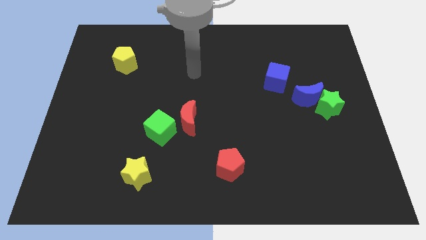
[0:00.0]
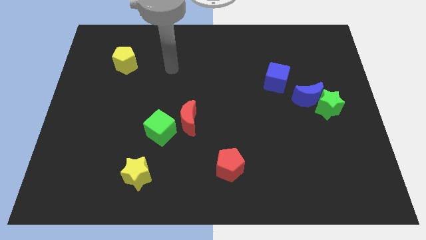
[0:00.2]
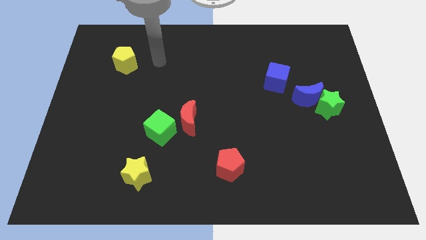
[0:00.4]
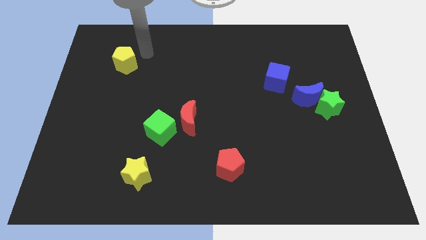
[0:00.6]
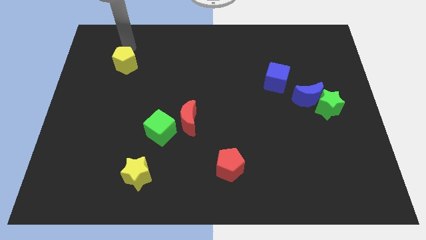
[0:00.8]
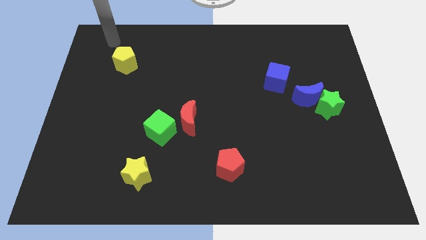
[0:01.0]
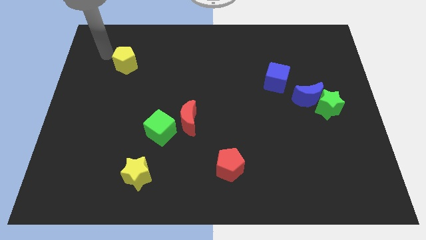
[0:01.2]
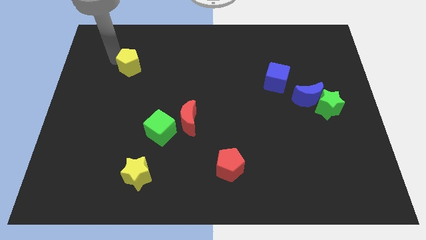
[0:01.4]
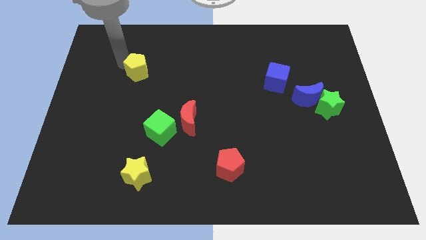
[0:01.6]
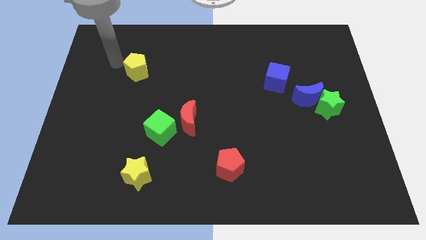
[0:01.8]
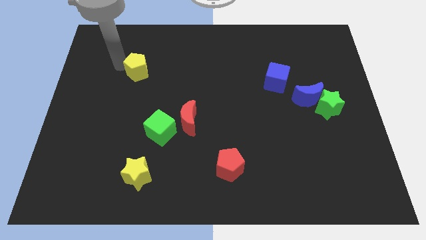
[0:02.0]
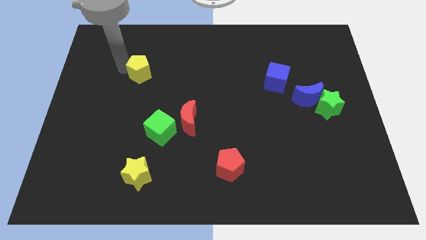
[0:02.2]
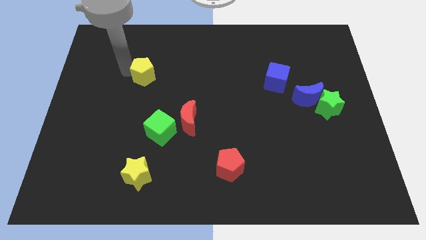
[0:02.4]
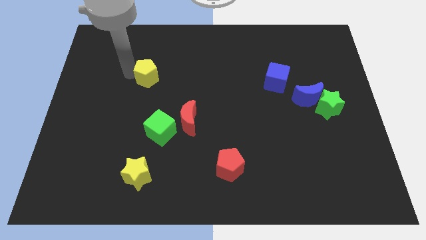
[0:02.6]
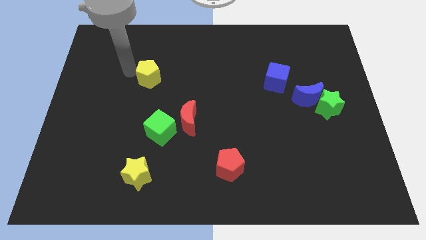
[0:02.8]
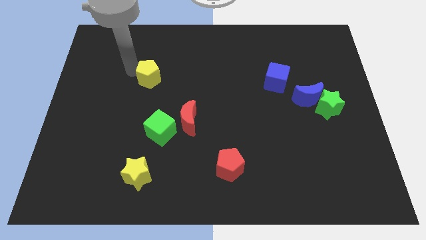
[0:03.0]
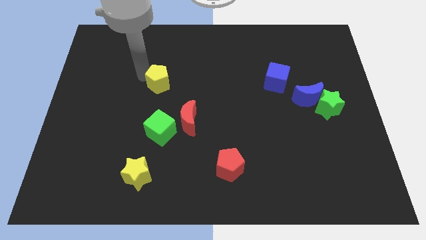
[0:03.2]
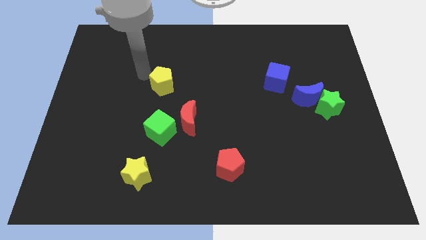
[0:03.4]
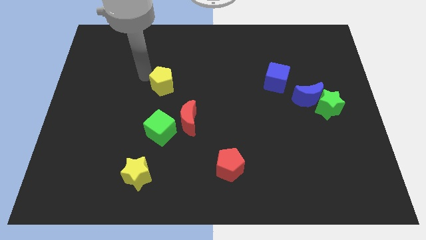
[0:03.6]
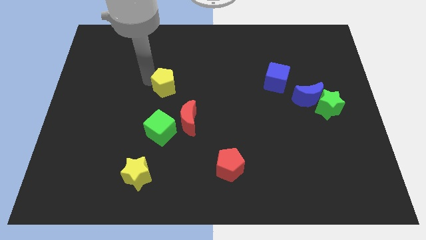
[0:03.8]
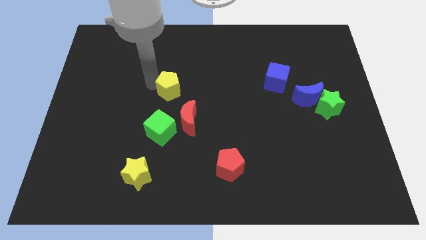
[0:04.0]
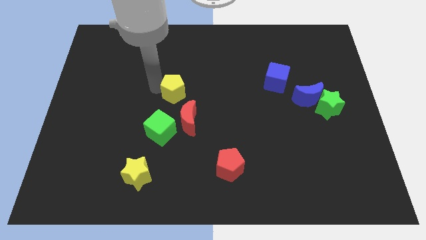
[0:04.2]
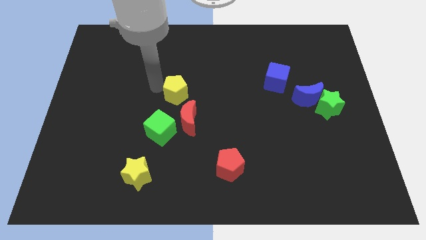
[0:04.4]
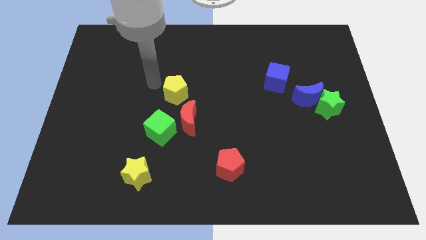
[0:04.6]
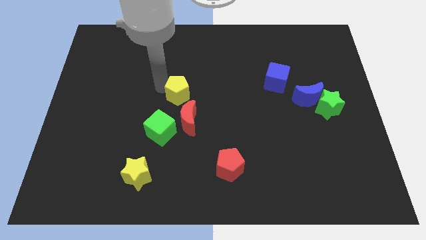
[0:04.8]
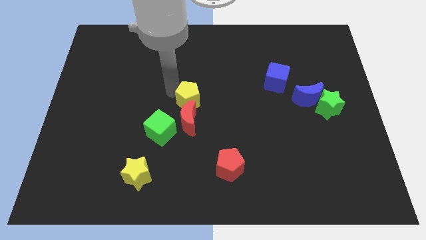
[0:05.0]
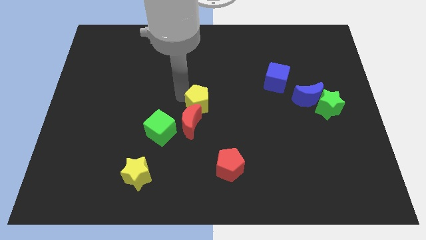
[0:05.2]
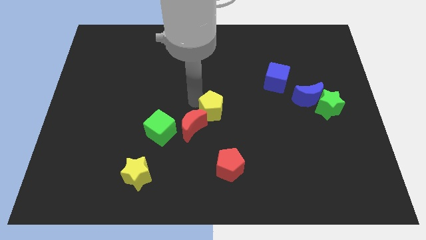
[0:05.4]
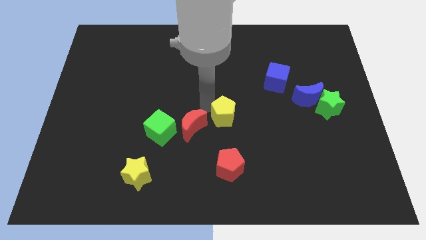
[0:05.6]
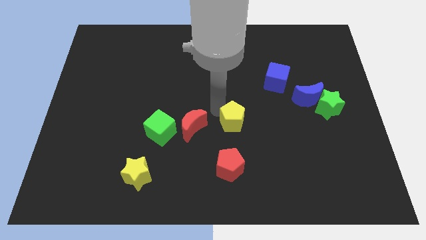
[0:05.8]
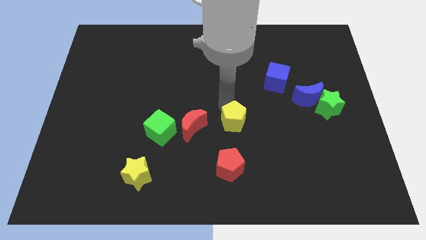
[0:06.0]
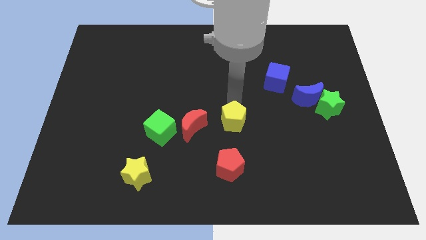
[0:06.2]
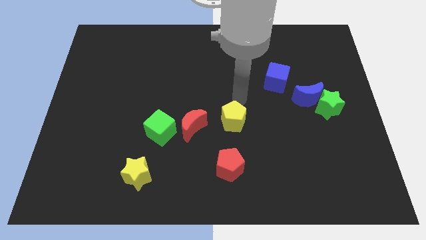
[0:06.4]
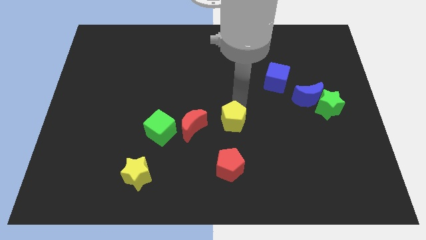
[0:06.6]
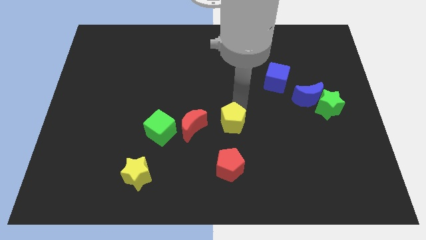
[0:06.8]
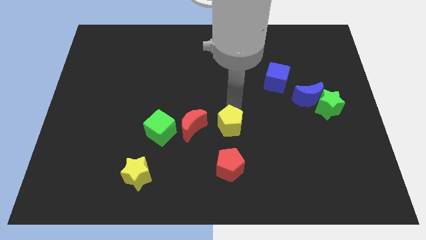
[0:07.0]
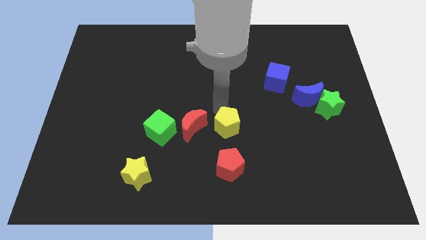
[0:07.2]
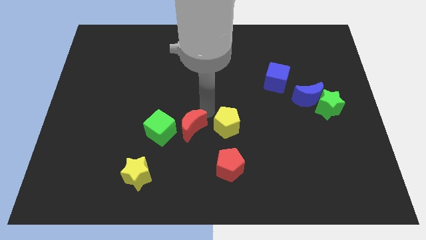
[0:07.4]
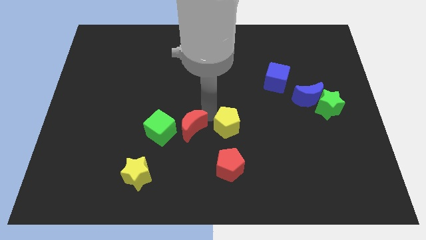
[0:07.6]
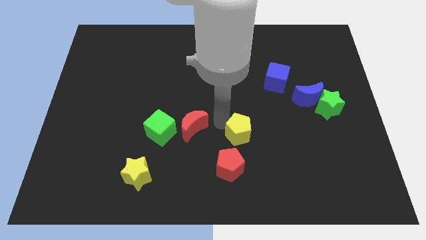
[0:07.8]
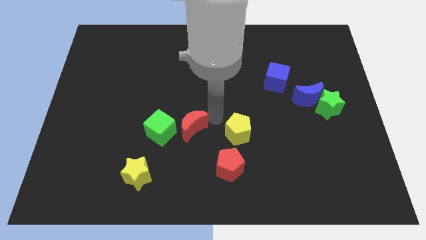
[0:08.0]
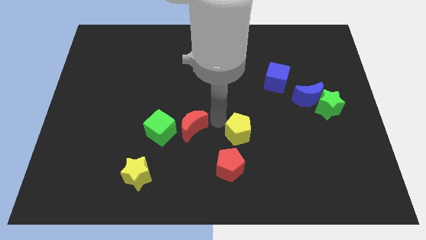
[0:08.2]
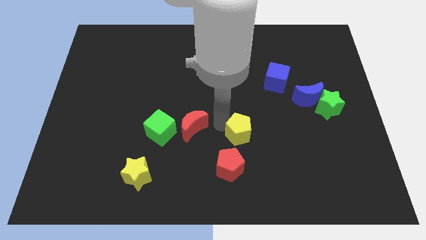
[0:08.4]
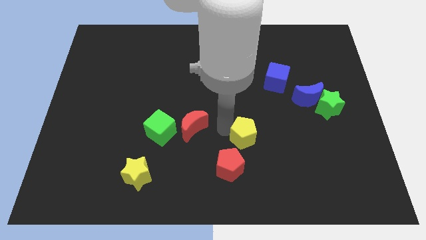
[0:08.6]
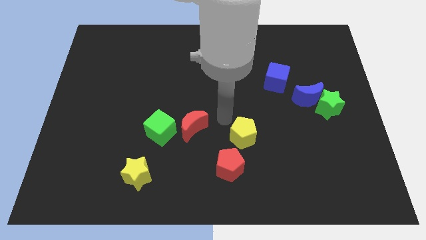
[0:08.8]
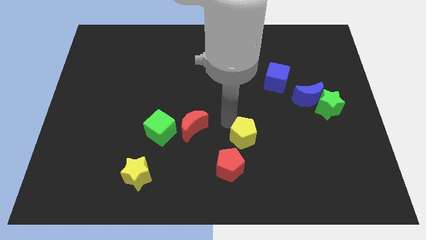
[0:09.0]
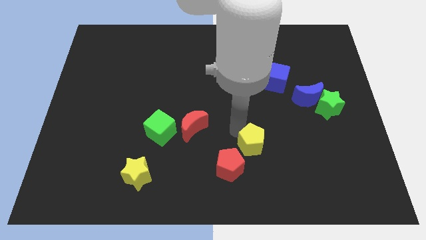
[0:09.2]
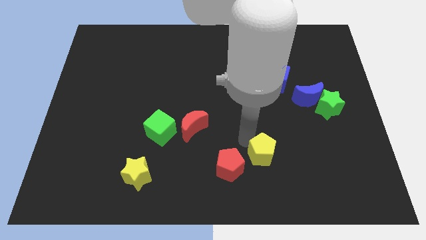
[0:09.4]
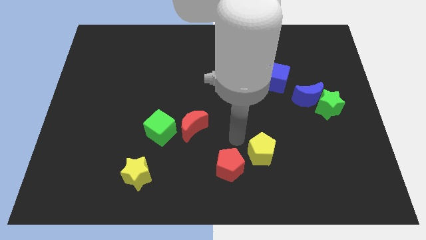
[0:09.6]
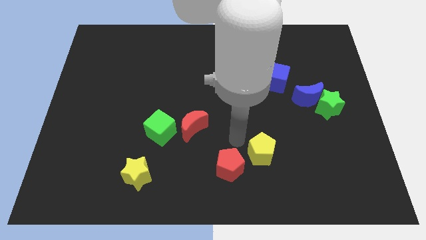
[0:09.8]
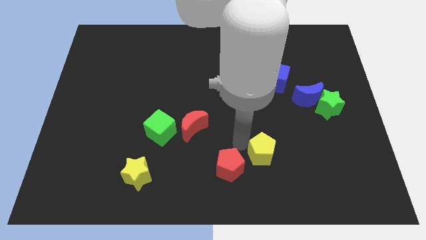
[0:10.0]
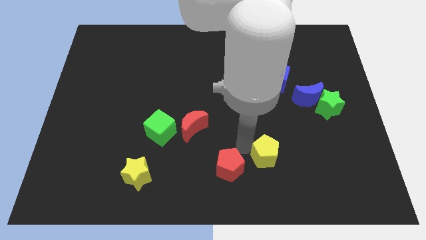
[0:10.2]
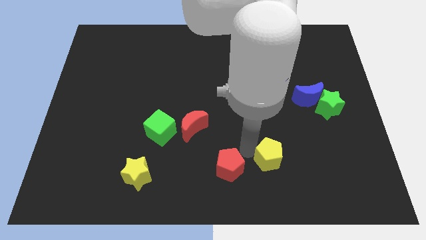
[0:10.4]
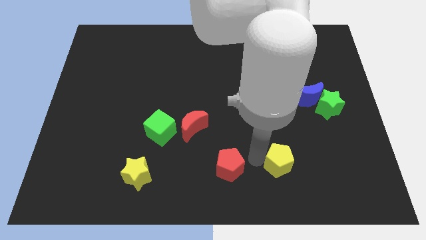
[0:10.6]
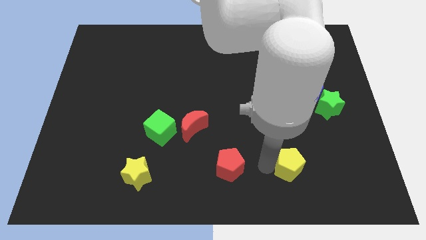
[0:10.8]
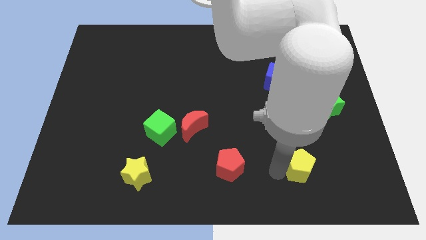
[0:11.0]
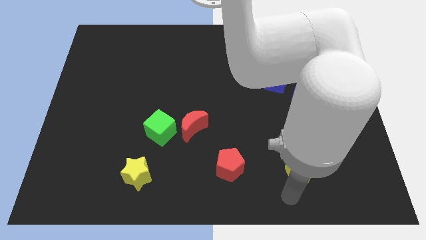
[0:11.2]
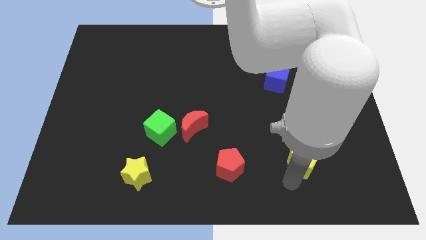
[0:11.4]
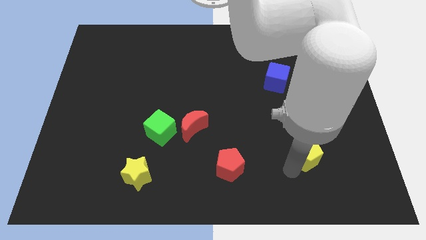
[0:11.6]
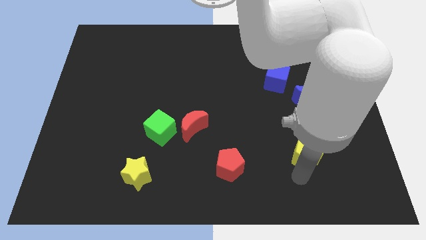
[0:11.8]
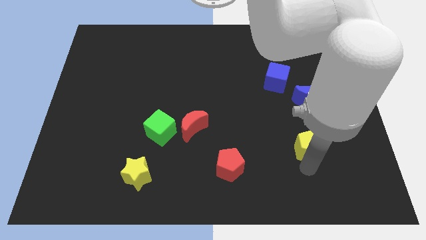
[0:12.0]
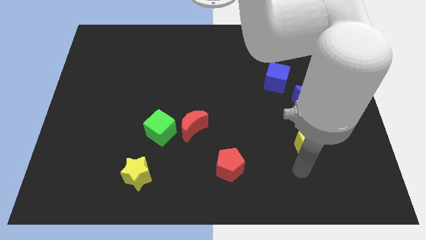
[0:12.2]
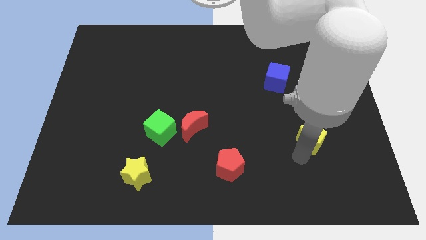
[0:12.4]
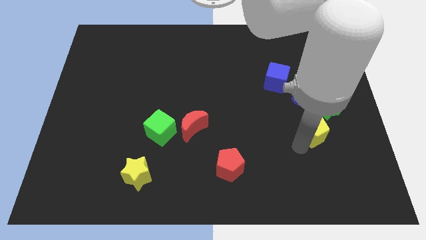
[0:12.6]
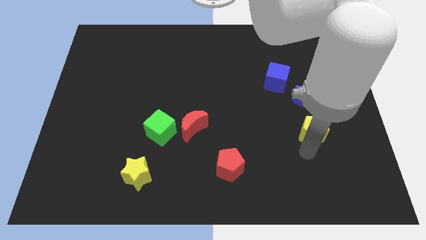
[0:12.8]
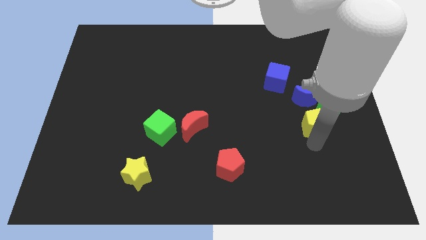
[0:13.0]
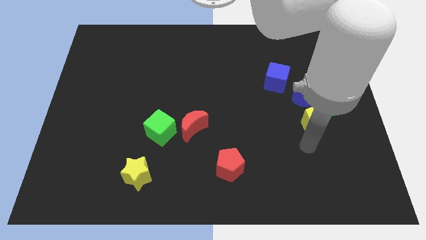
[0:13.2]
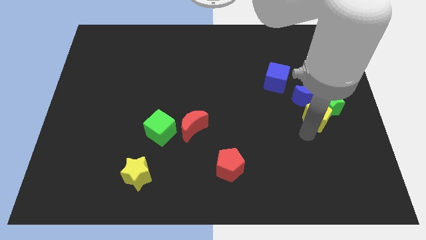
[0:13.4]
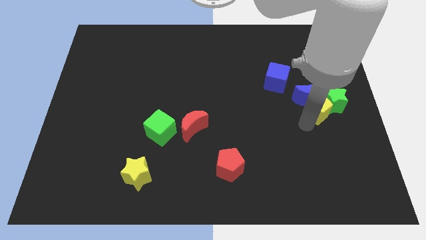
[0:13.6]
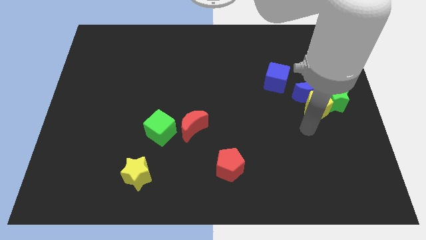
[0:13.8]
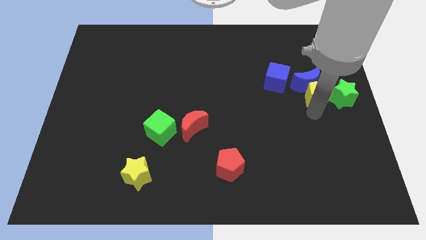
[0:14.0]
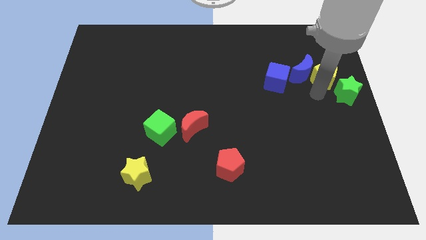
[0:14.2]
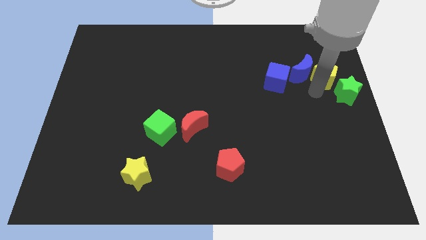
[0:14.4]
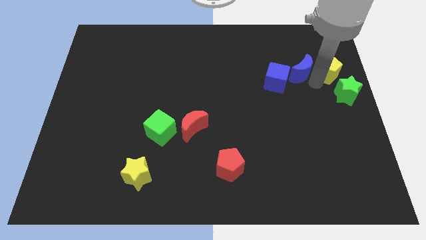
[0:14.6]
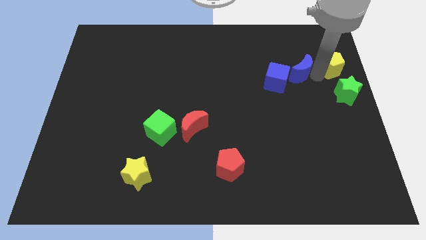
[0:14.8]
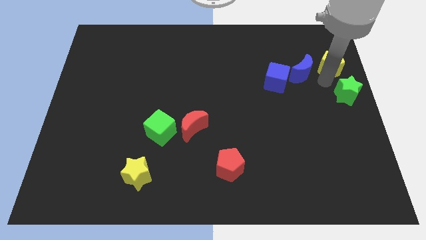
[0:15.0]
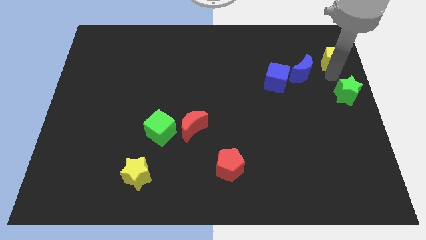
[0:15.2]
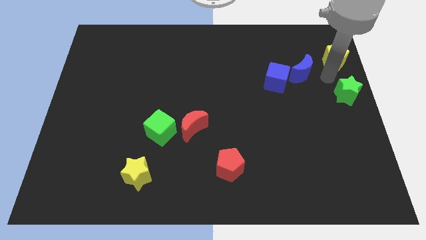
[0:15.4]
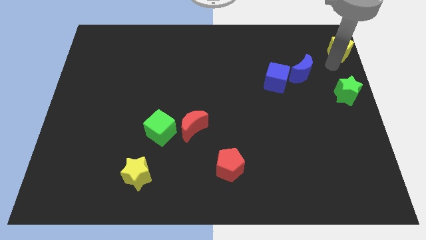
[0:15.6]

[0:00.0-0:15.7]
put the yellow pentagon to the top right corner
